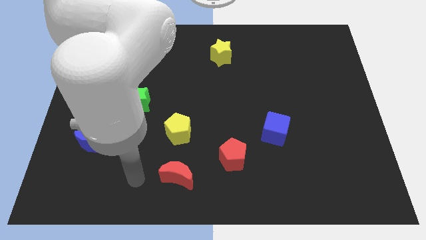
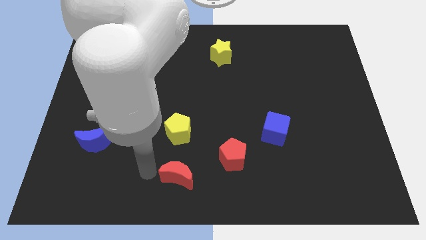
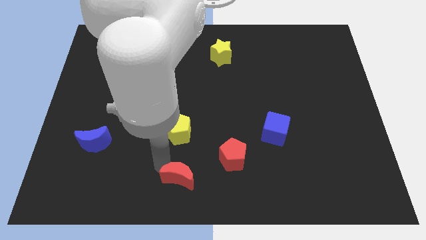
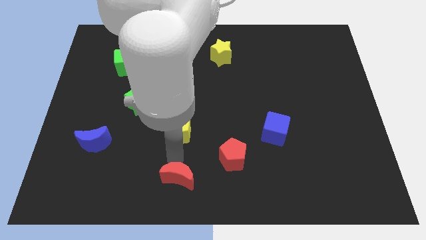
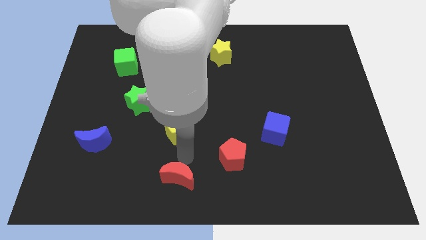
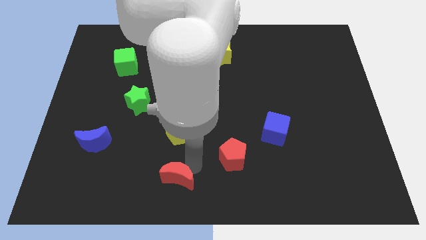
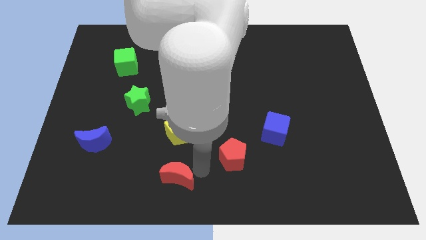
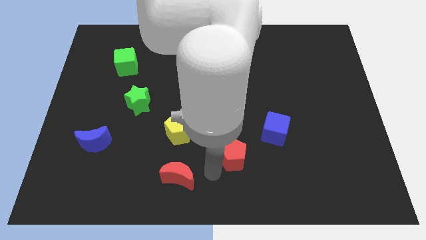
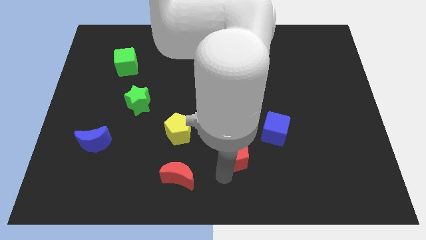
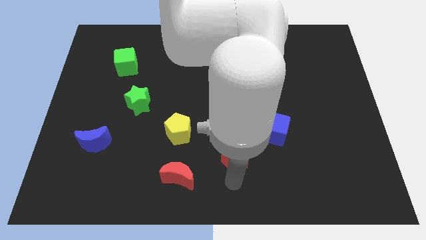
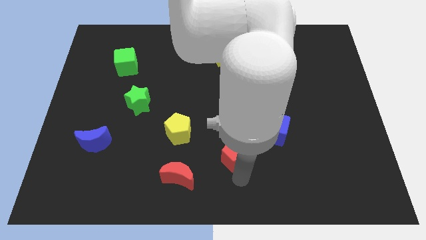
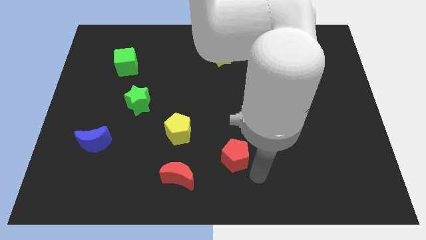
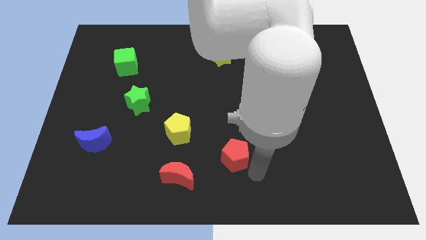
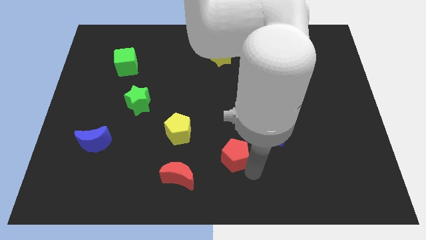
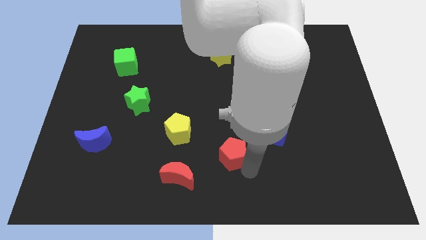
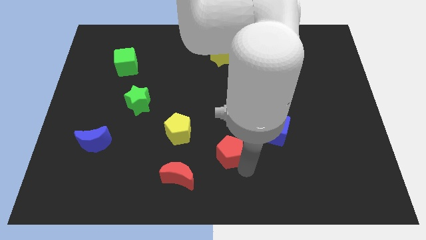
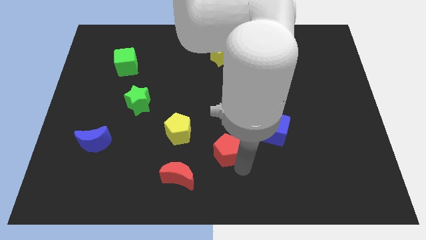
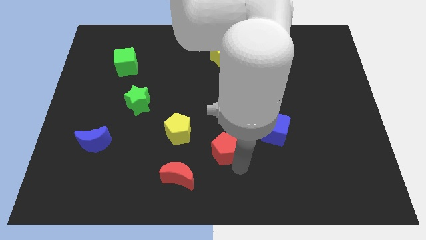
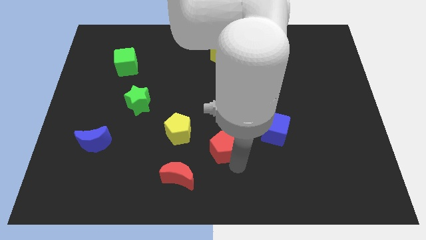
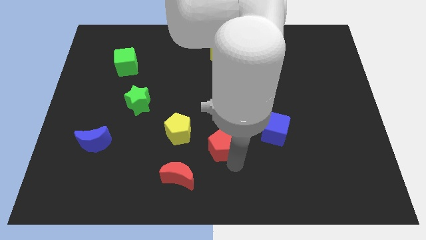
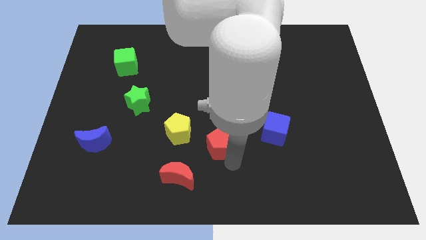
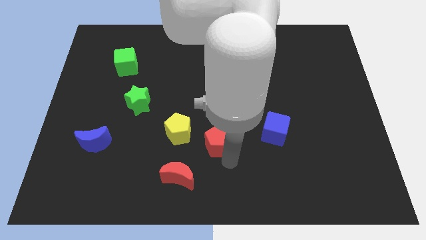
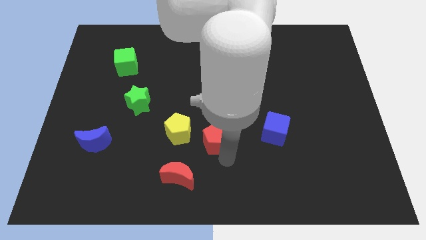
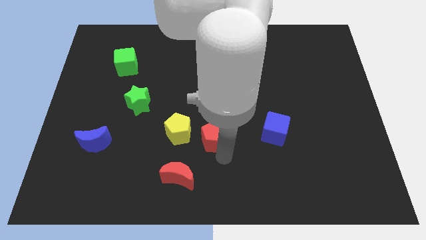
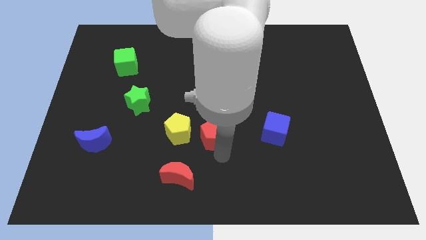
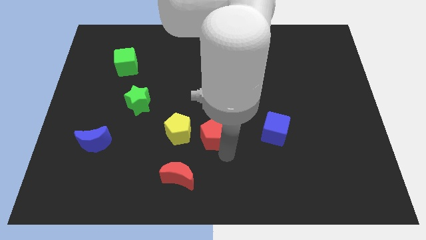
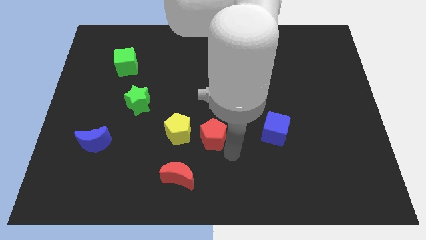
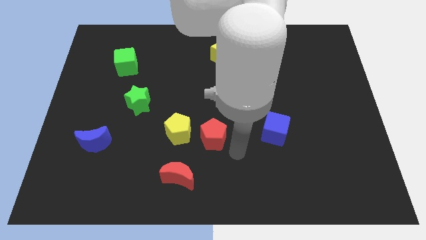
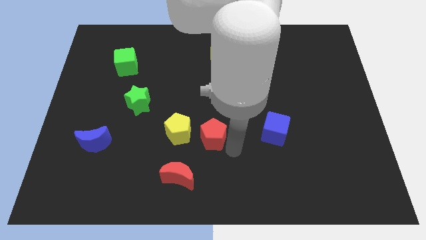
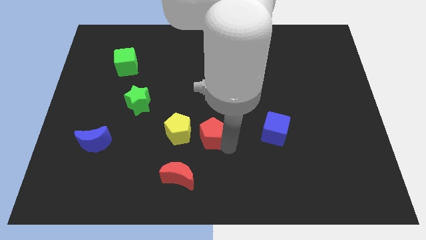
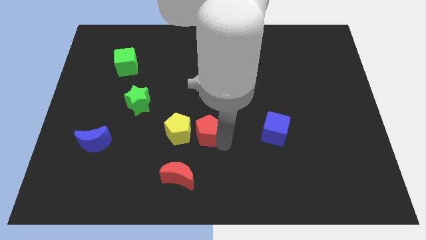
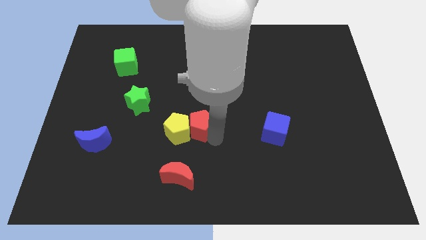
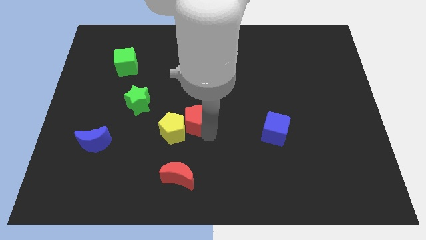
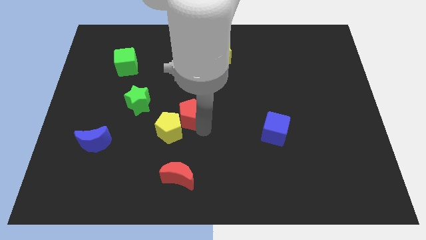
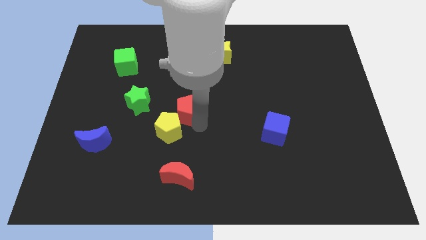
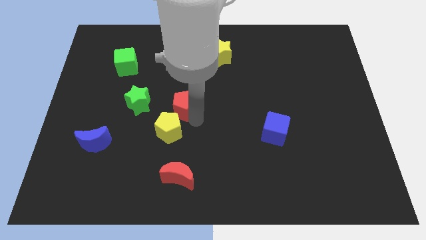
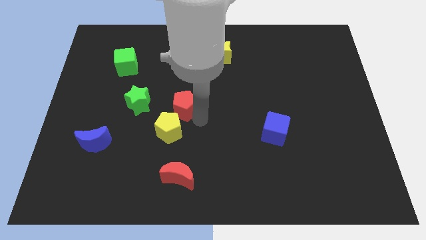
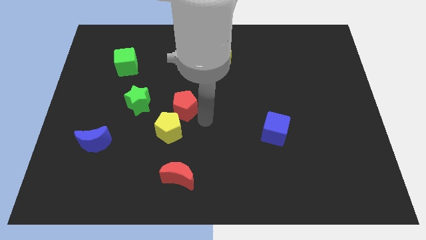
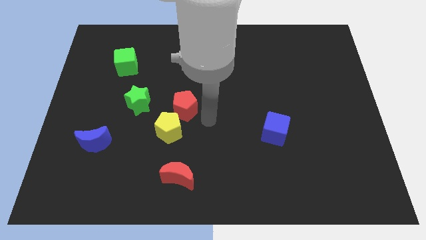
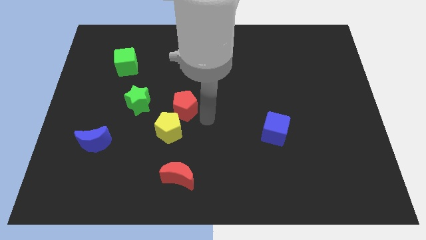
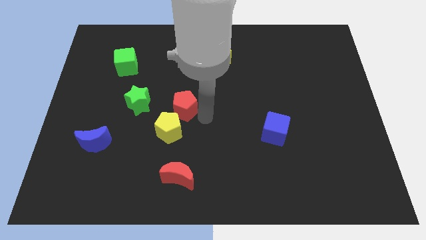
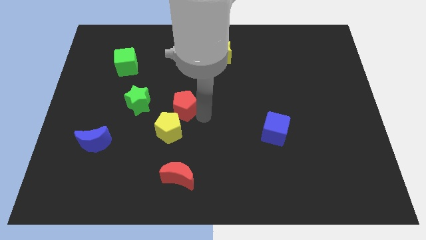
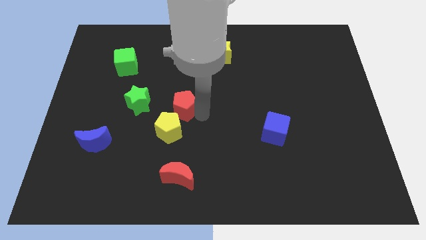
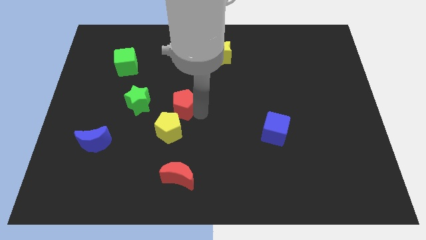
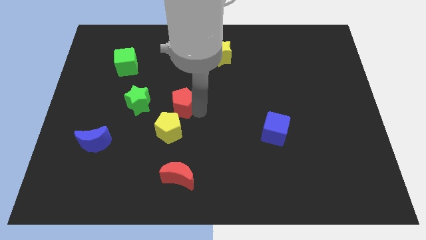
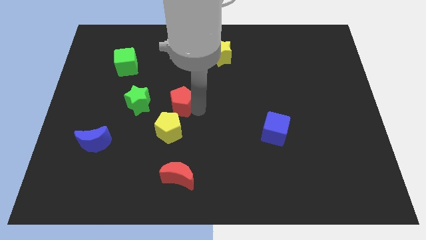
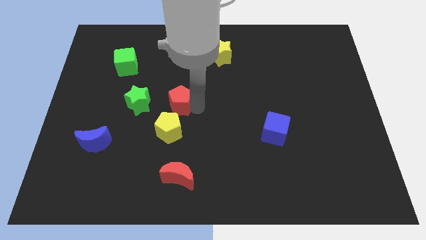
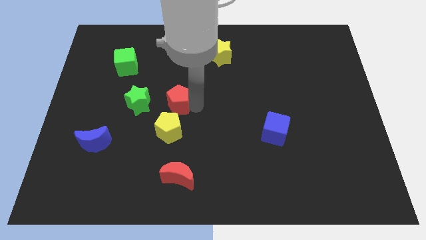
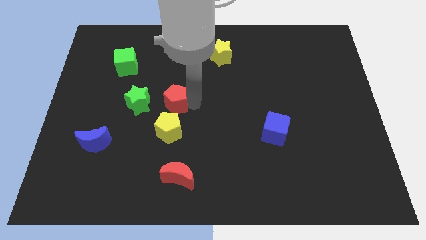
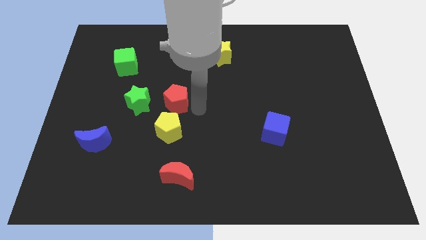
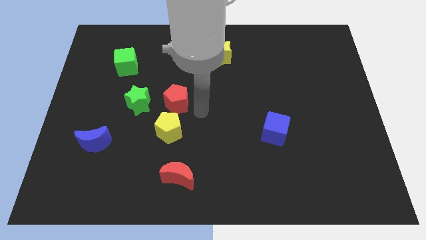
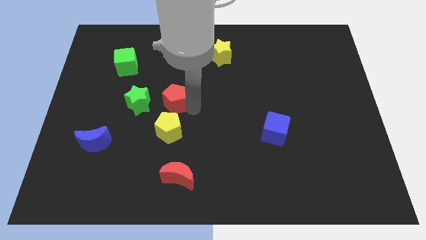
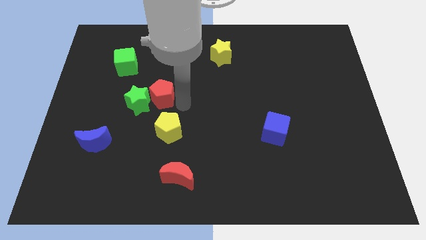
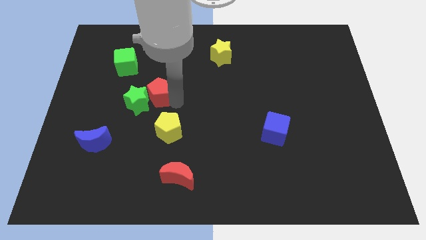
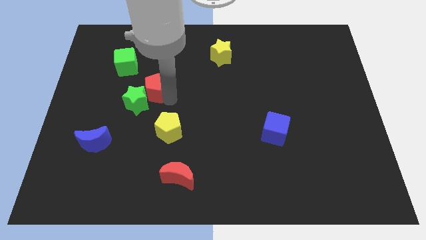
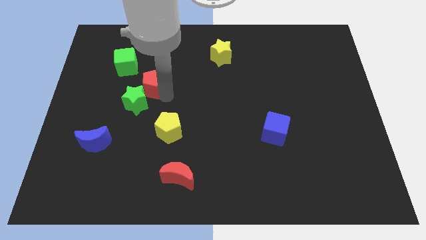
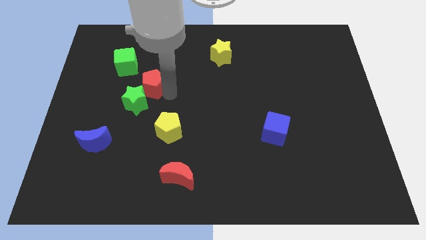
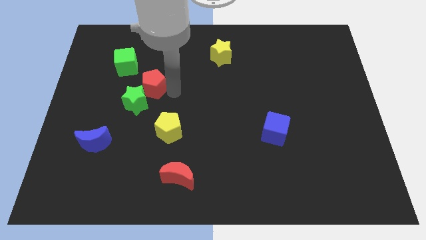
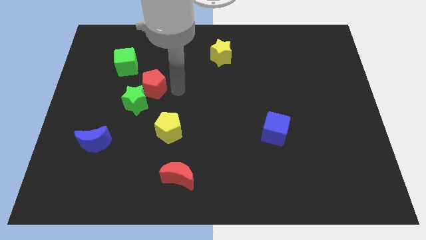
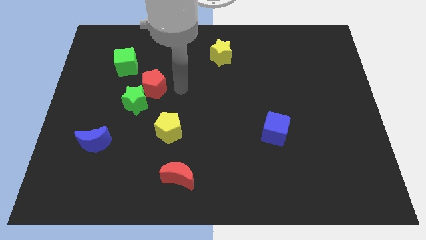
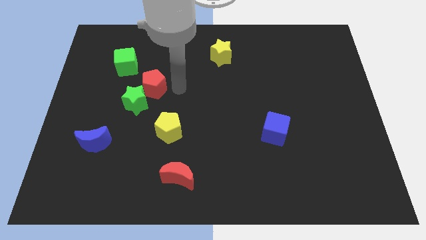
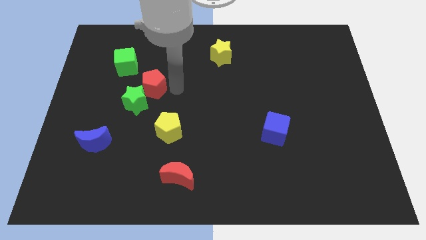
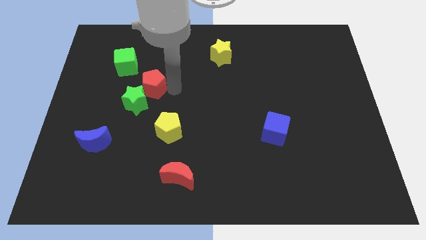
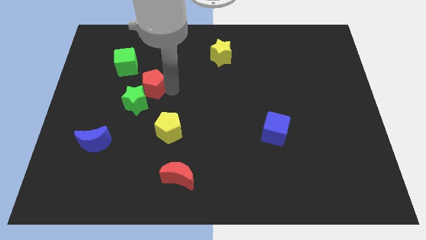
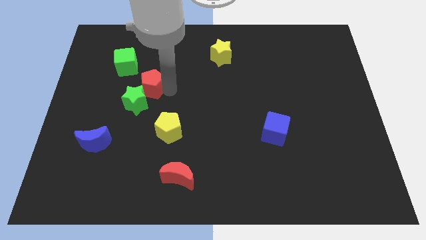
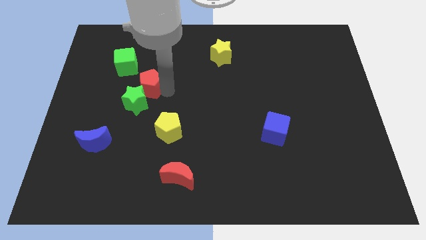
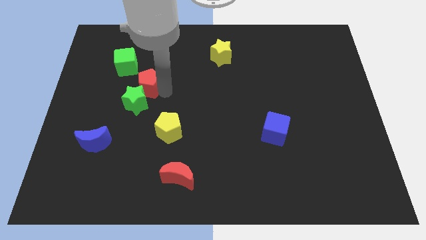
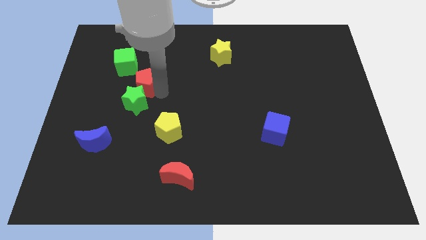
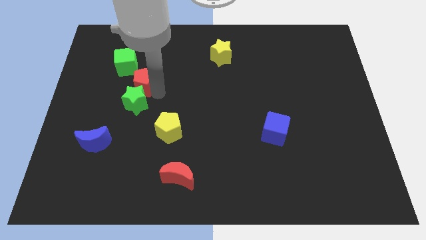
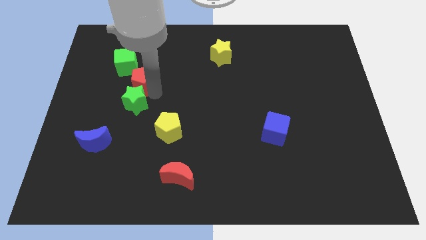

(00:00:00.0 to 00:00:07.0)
move the red pentagon diagonally up and to the left of the green star

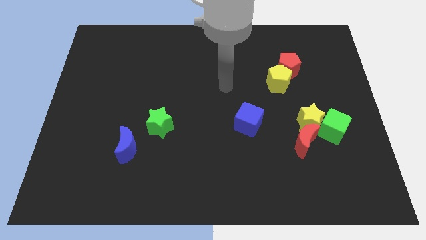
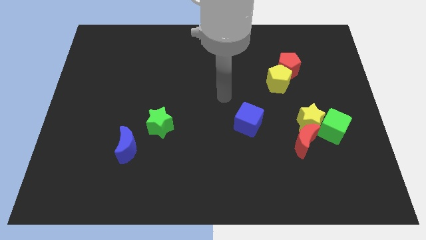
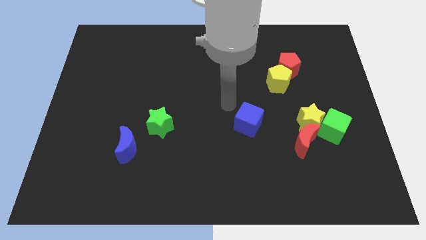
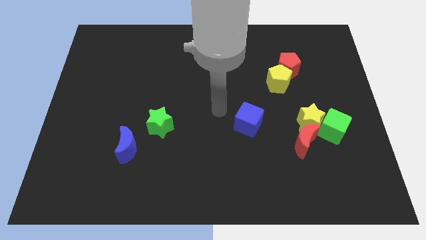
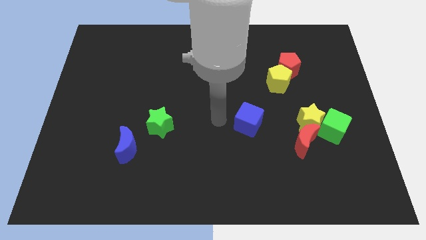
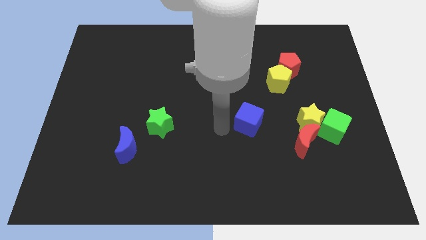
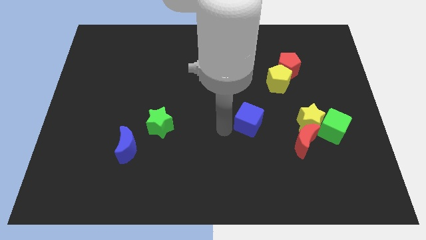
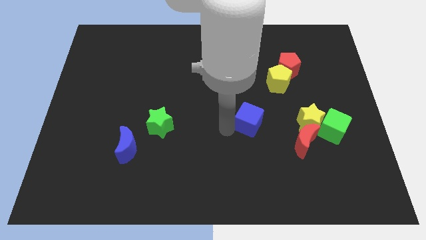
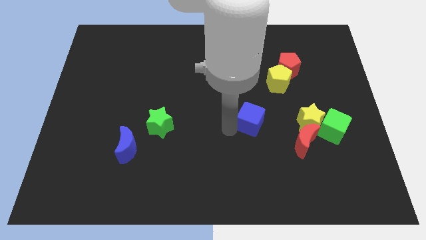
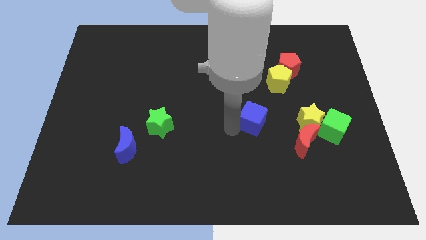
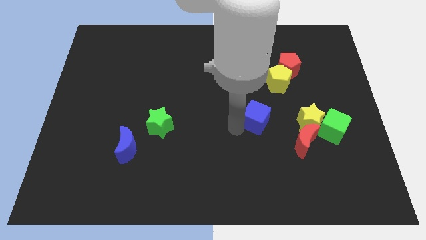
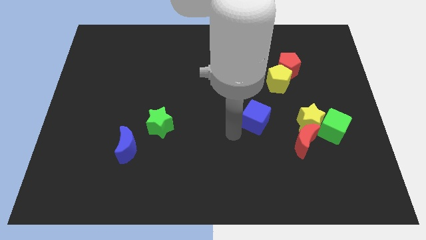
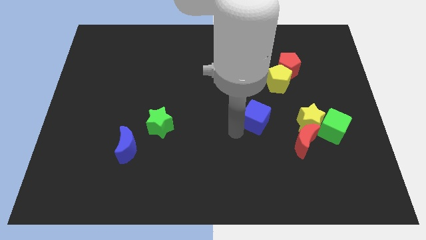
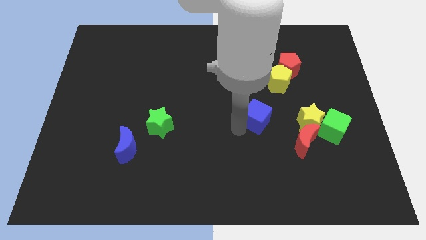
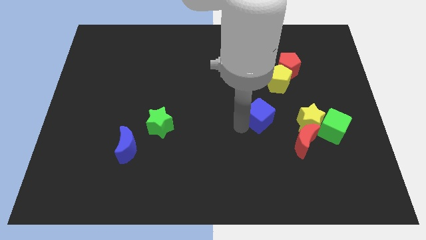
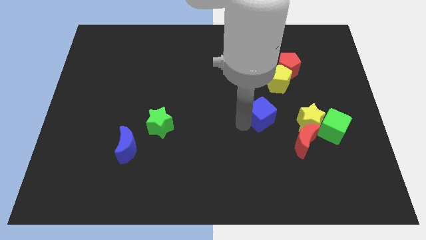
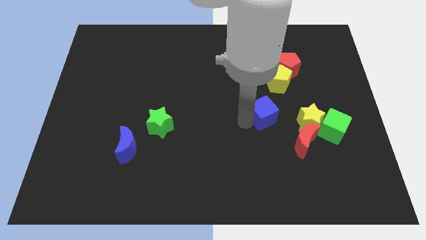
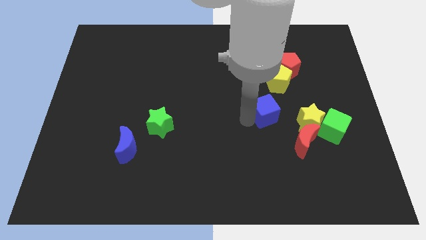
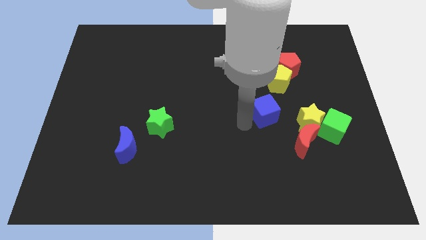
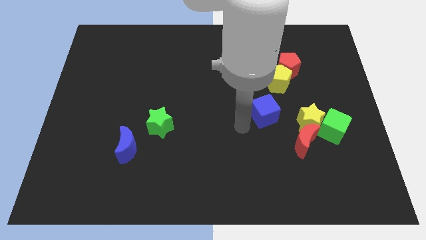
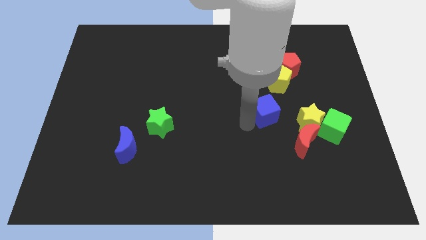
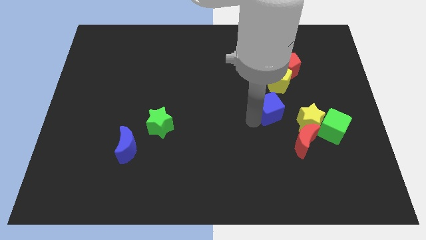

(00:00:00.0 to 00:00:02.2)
push the blue cube diagonally up and to the left of the yellow star
